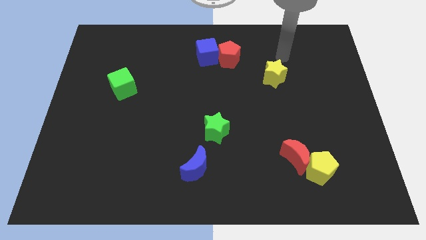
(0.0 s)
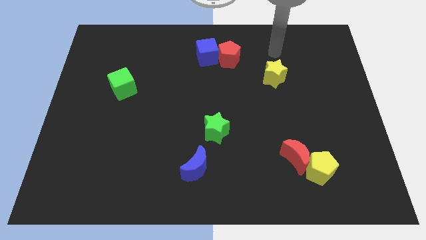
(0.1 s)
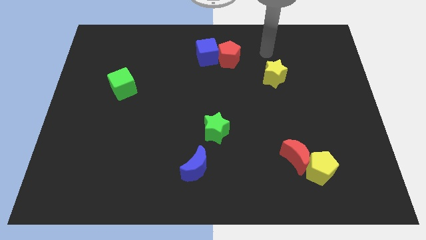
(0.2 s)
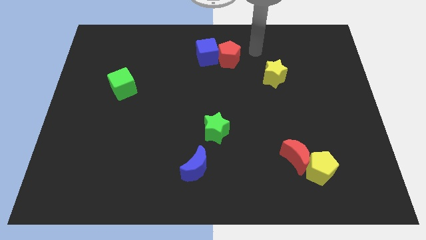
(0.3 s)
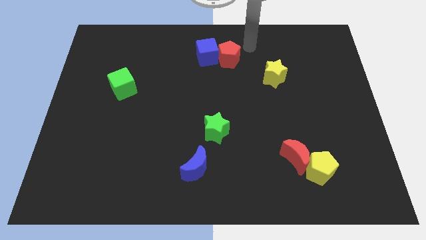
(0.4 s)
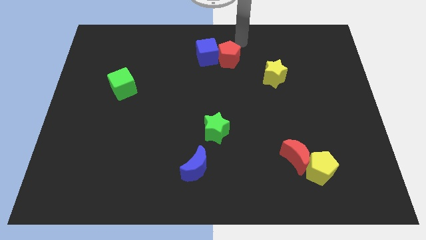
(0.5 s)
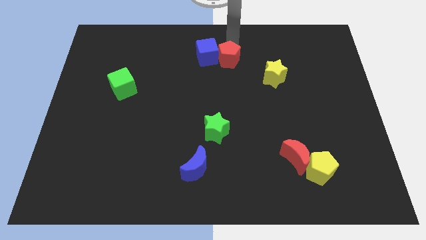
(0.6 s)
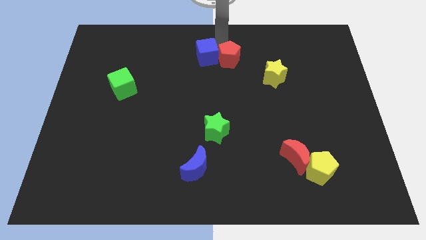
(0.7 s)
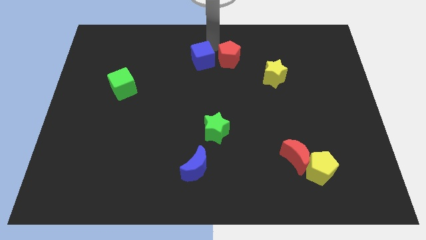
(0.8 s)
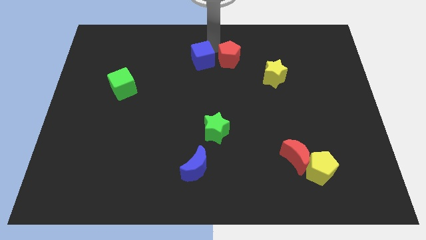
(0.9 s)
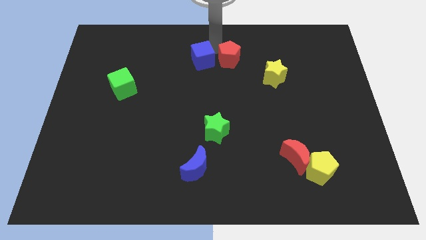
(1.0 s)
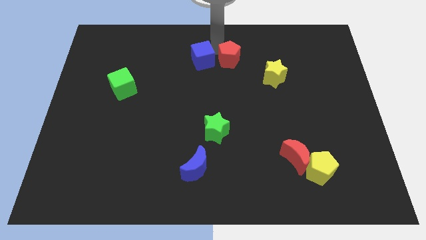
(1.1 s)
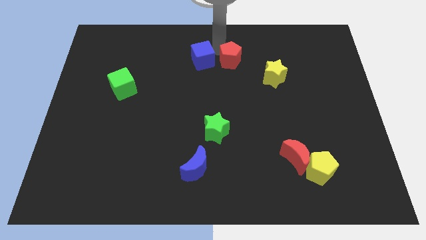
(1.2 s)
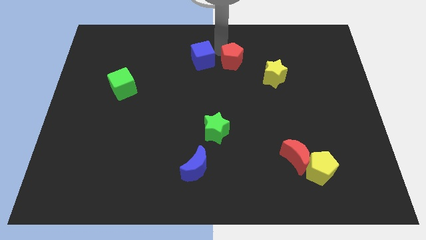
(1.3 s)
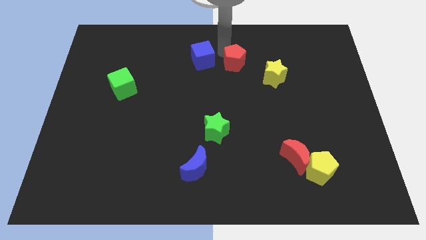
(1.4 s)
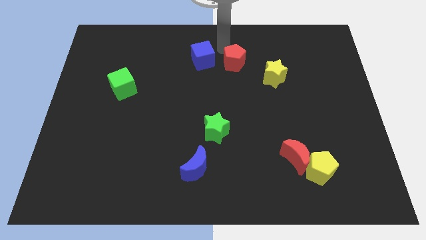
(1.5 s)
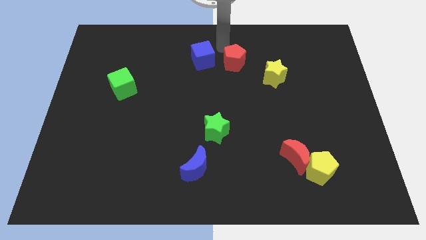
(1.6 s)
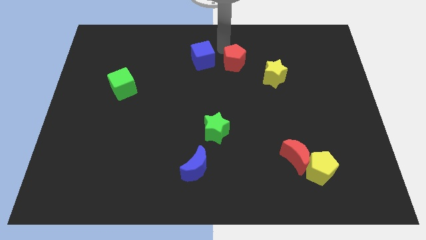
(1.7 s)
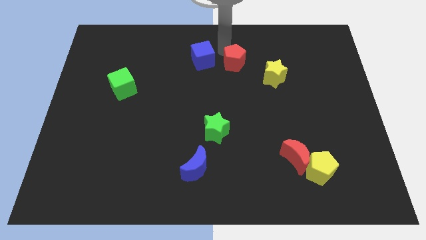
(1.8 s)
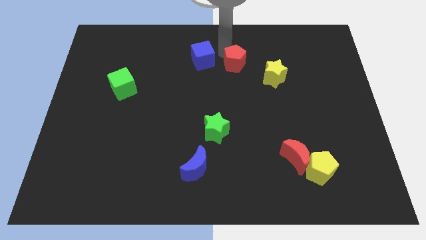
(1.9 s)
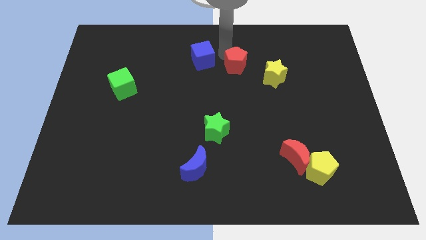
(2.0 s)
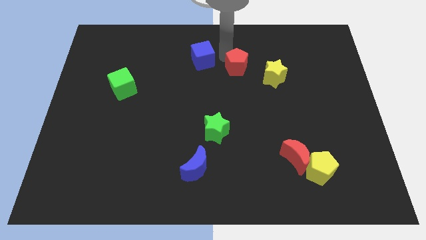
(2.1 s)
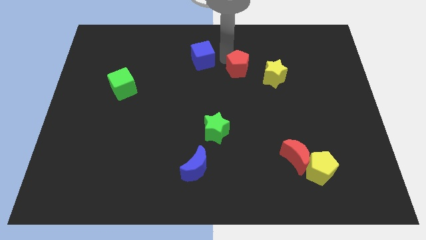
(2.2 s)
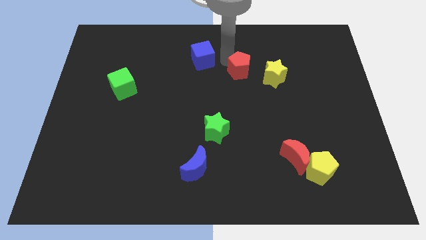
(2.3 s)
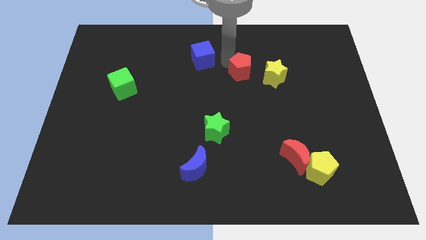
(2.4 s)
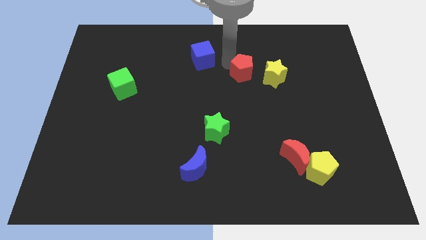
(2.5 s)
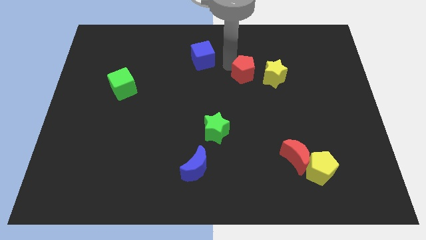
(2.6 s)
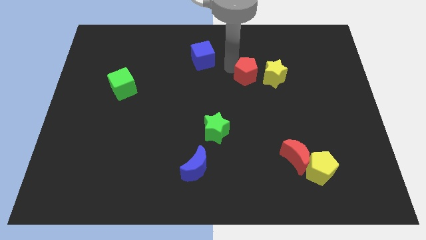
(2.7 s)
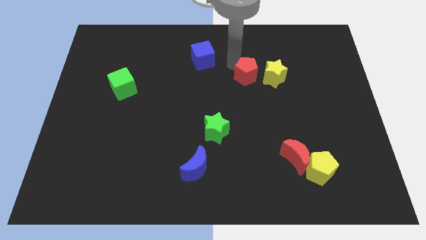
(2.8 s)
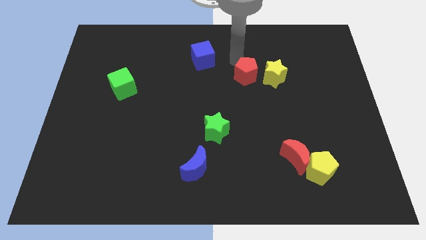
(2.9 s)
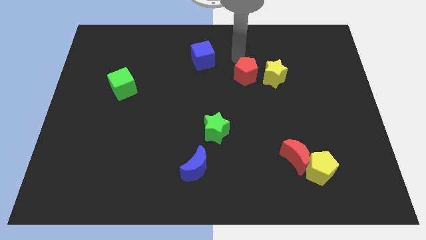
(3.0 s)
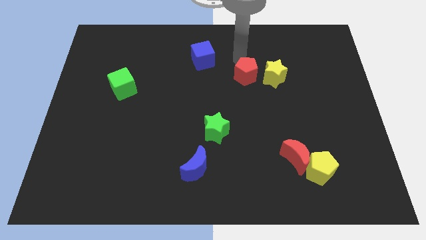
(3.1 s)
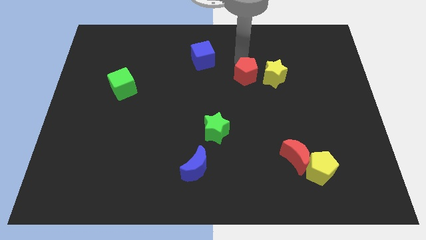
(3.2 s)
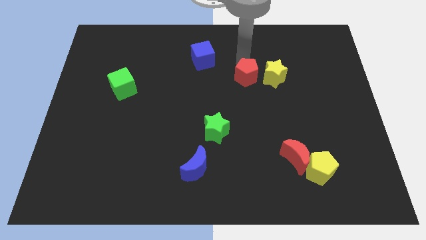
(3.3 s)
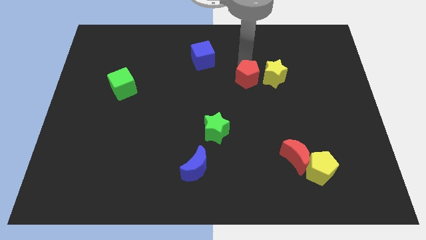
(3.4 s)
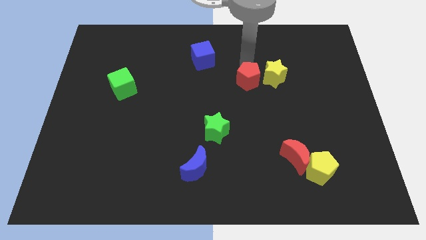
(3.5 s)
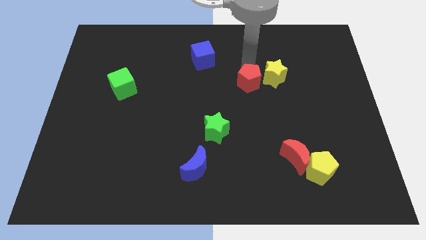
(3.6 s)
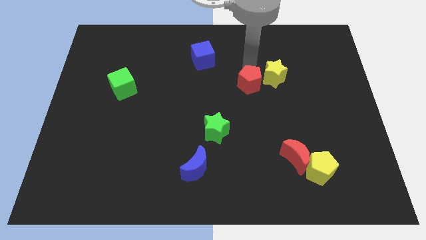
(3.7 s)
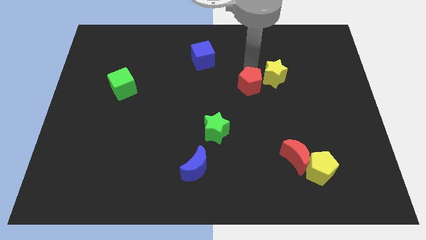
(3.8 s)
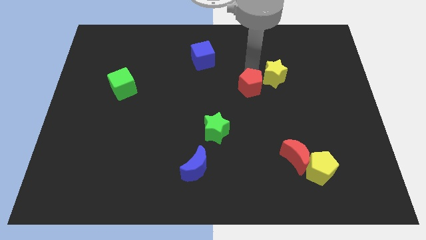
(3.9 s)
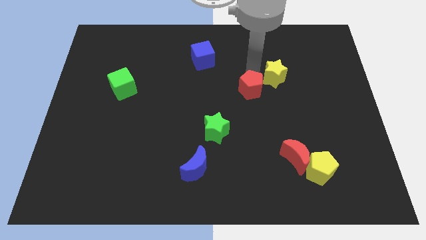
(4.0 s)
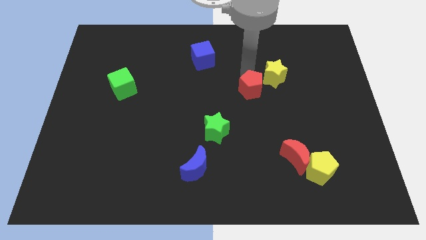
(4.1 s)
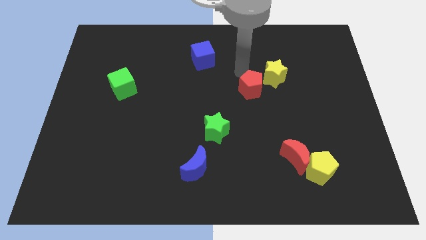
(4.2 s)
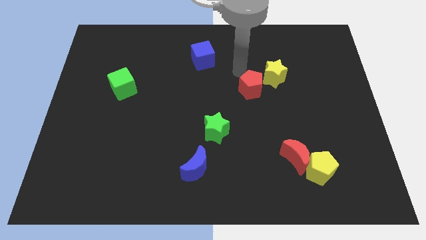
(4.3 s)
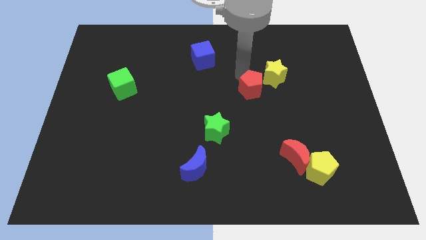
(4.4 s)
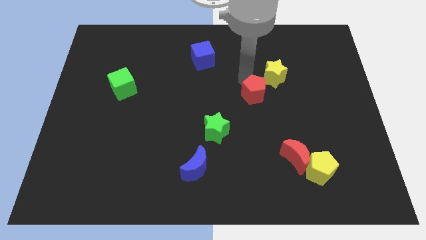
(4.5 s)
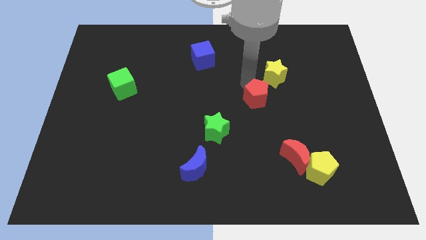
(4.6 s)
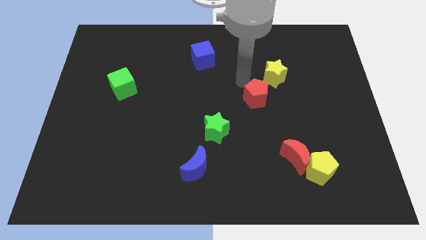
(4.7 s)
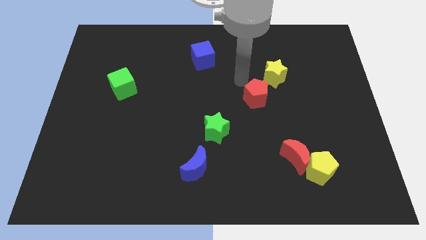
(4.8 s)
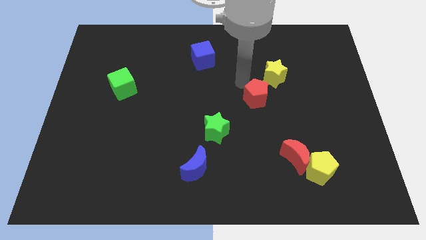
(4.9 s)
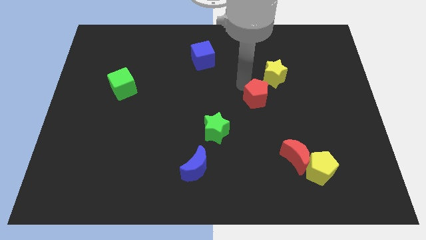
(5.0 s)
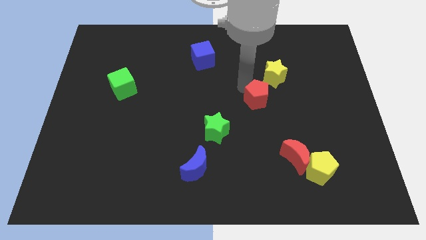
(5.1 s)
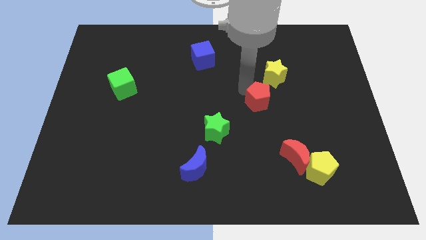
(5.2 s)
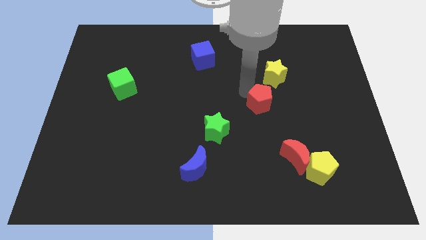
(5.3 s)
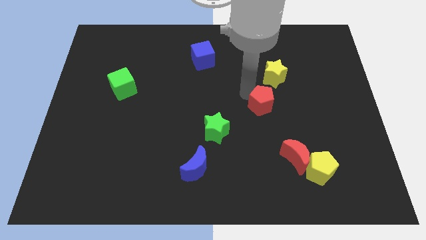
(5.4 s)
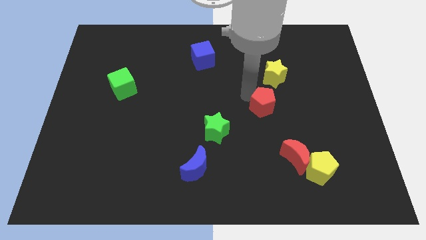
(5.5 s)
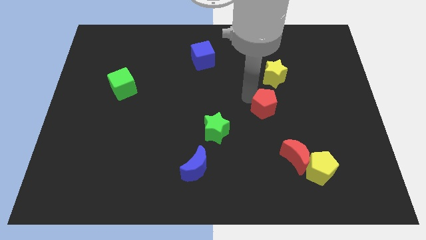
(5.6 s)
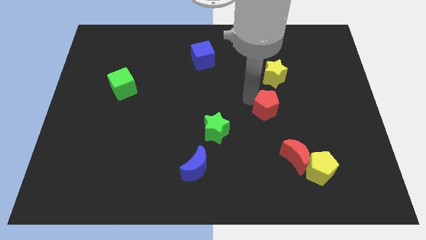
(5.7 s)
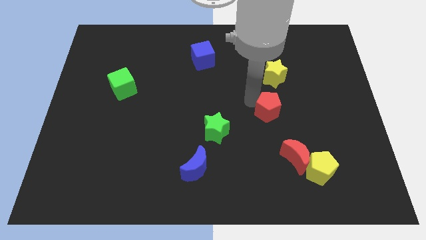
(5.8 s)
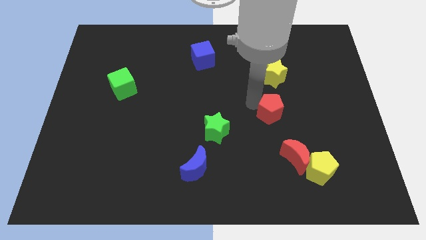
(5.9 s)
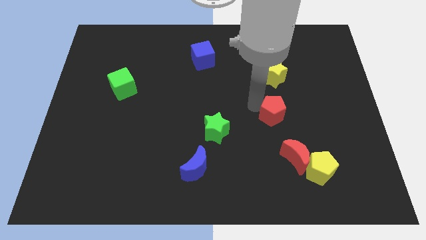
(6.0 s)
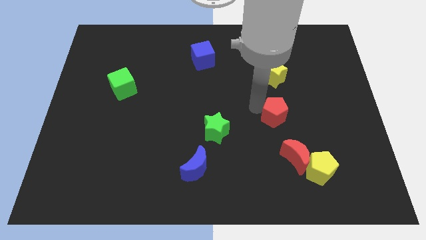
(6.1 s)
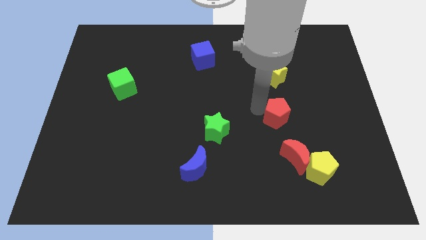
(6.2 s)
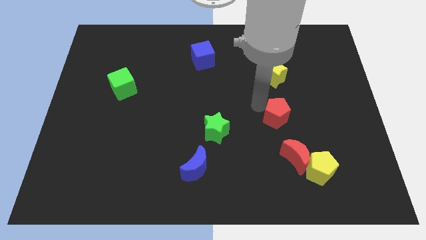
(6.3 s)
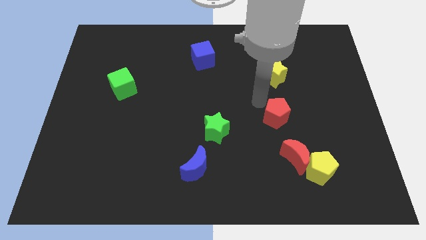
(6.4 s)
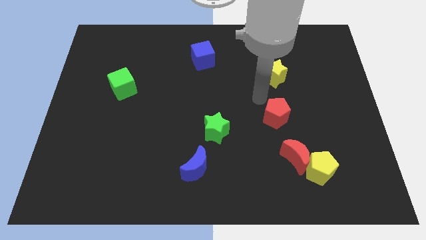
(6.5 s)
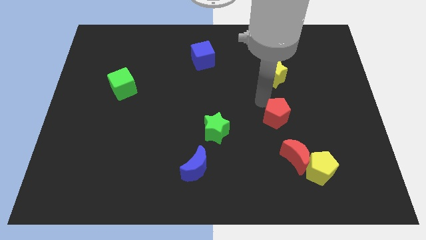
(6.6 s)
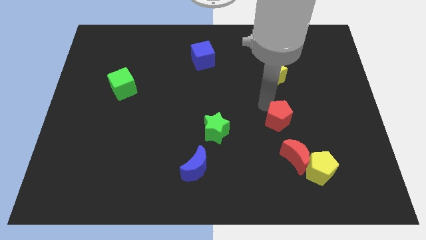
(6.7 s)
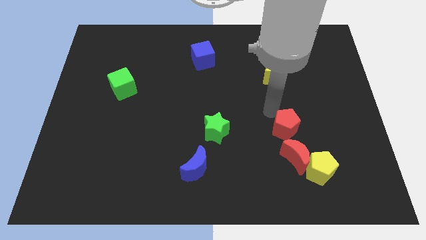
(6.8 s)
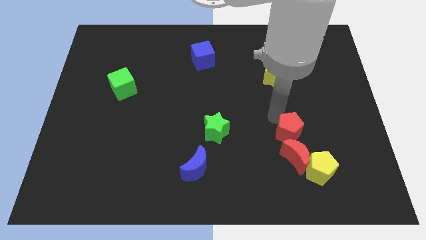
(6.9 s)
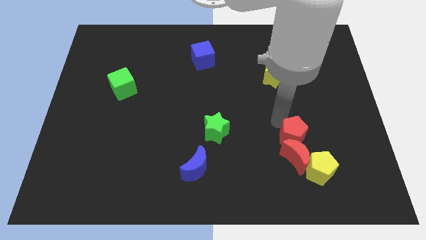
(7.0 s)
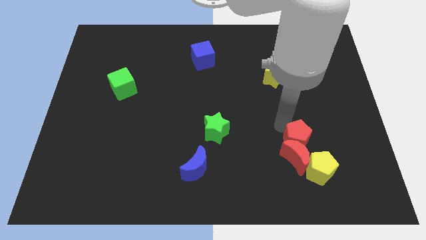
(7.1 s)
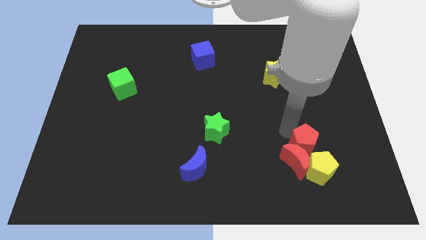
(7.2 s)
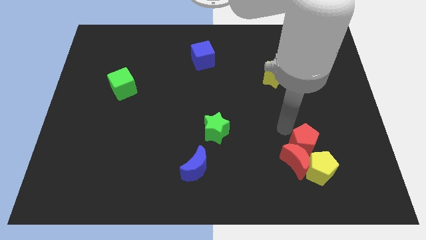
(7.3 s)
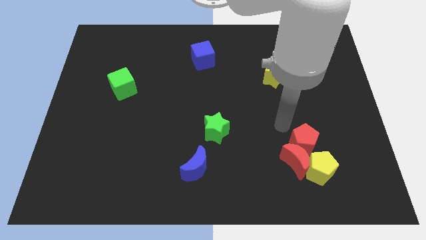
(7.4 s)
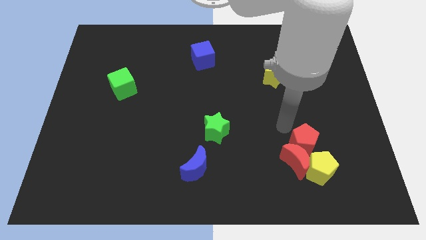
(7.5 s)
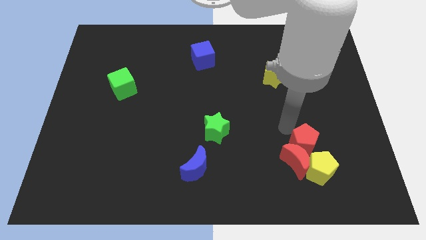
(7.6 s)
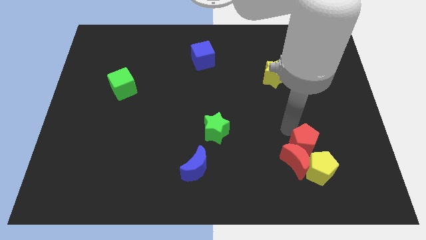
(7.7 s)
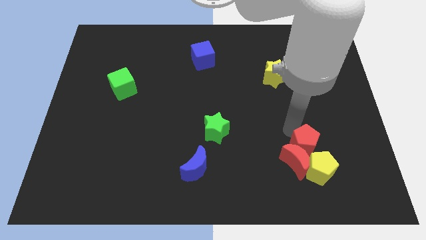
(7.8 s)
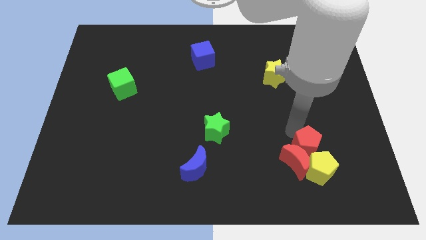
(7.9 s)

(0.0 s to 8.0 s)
put the red pentagon next to the yellow pentagon
